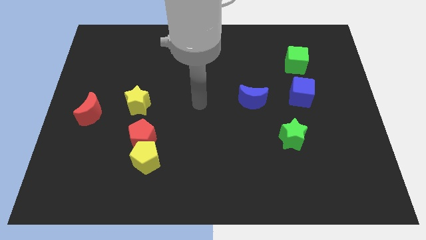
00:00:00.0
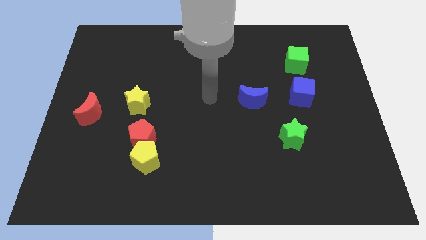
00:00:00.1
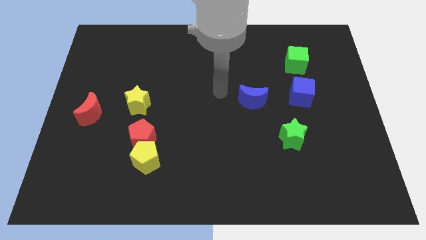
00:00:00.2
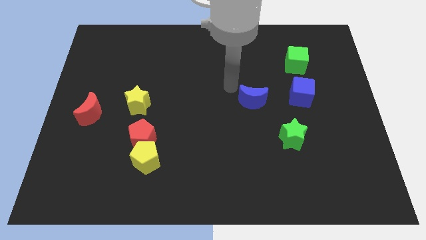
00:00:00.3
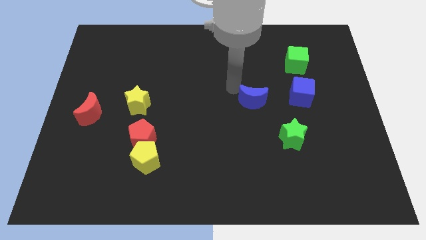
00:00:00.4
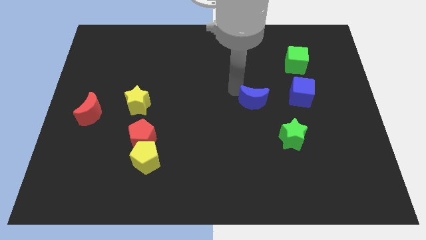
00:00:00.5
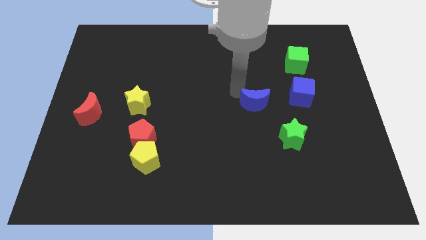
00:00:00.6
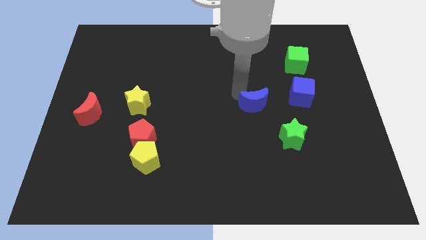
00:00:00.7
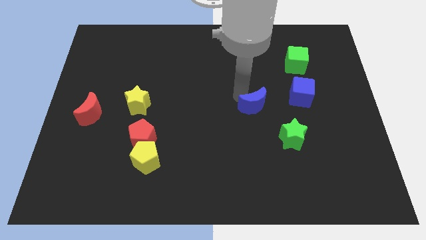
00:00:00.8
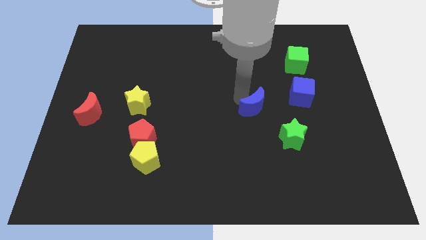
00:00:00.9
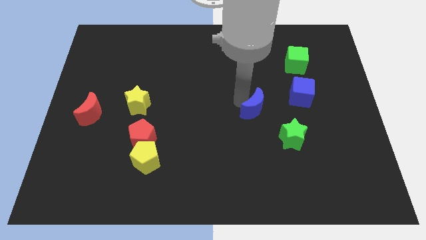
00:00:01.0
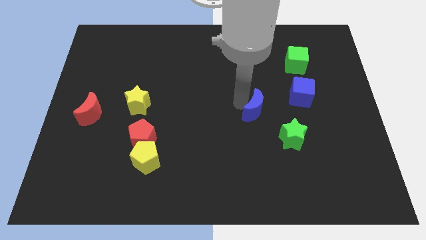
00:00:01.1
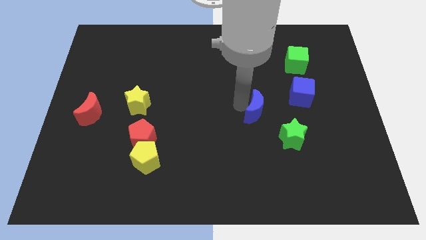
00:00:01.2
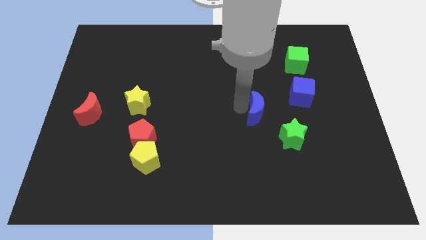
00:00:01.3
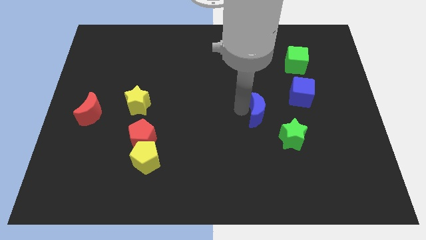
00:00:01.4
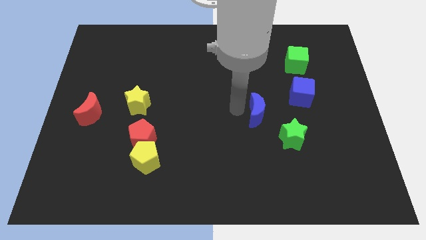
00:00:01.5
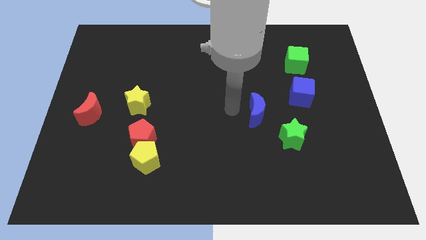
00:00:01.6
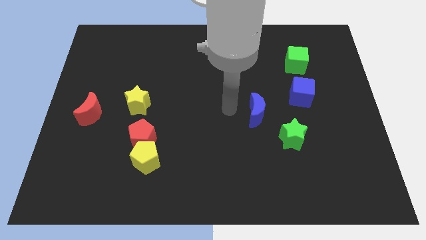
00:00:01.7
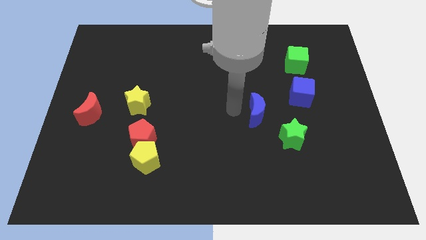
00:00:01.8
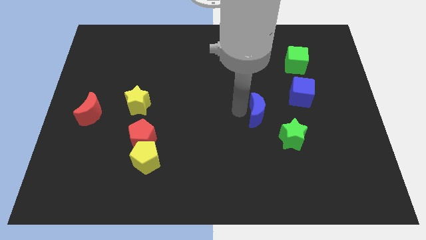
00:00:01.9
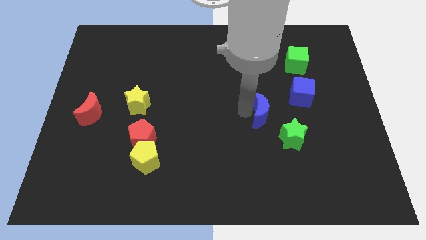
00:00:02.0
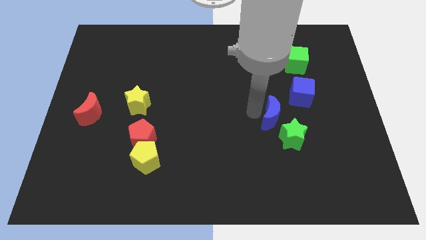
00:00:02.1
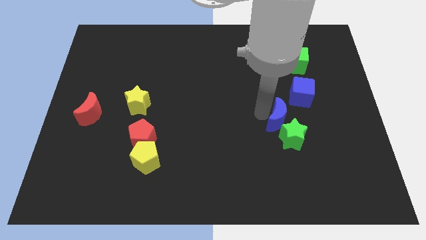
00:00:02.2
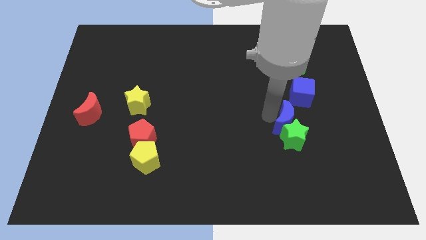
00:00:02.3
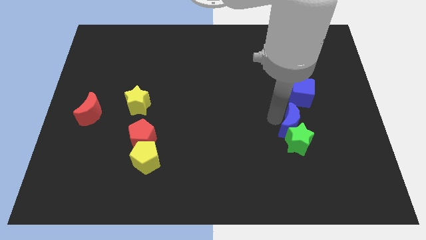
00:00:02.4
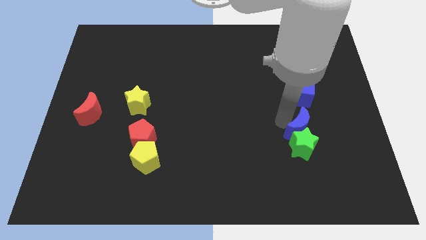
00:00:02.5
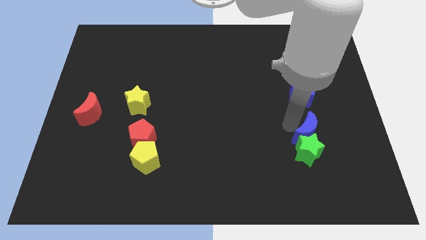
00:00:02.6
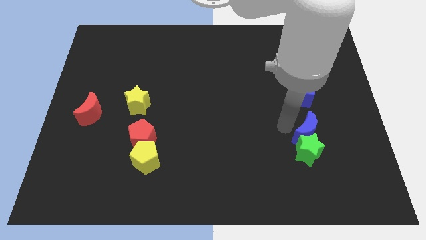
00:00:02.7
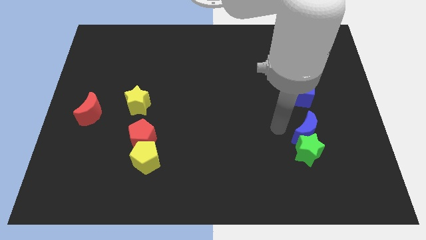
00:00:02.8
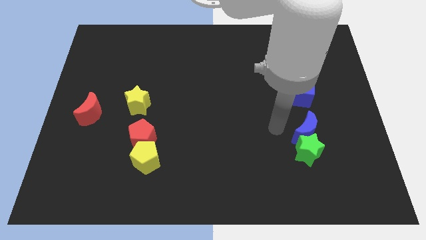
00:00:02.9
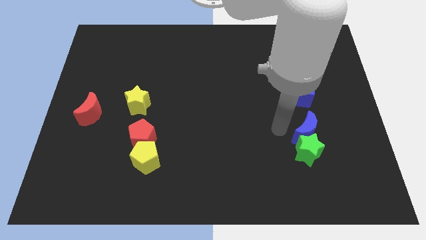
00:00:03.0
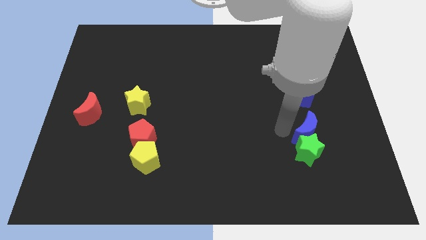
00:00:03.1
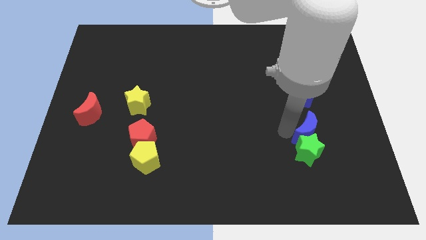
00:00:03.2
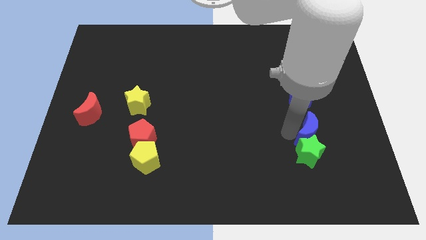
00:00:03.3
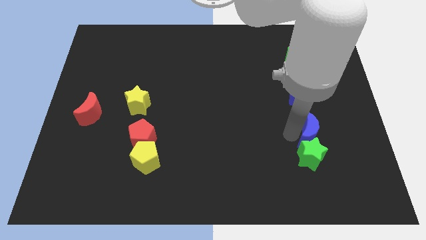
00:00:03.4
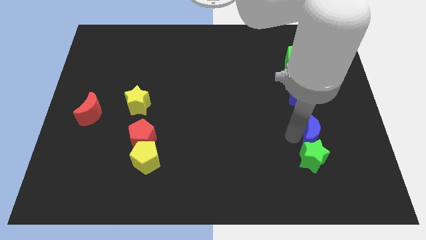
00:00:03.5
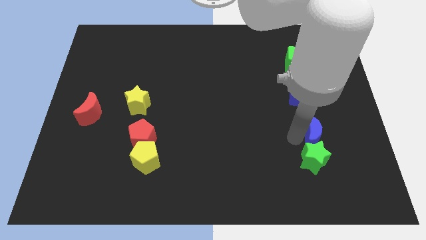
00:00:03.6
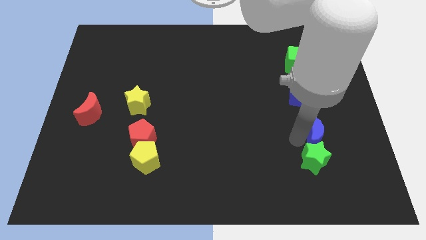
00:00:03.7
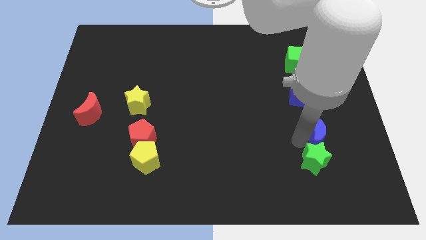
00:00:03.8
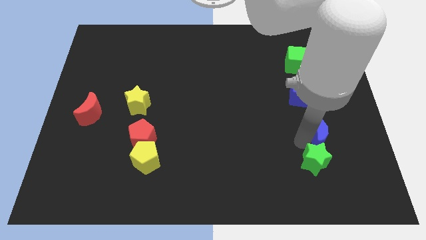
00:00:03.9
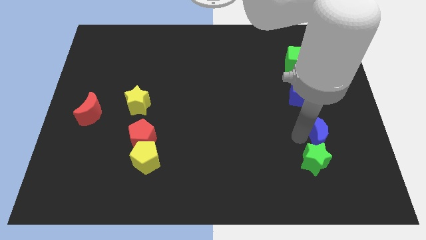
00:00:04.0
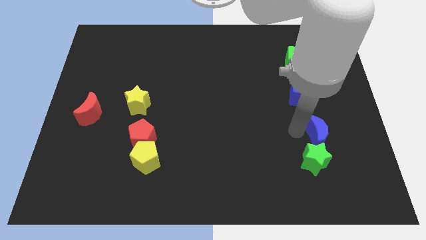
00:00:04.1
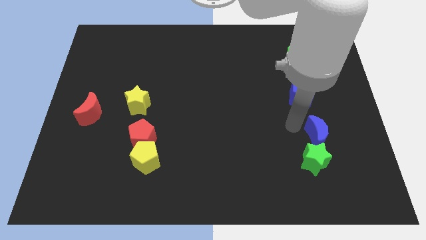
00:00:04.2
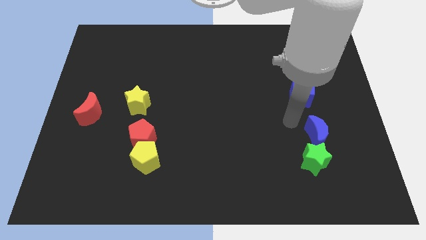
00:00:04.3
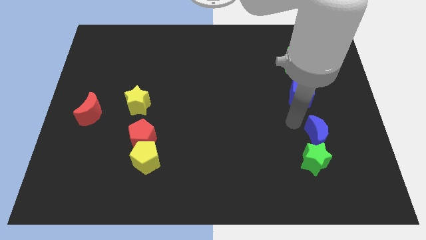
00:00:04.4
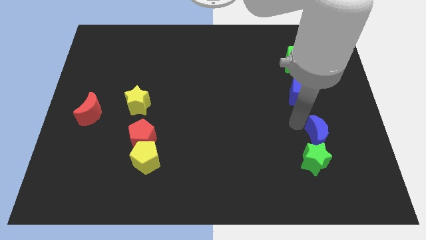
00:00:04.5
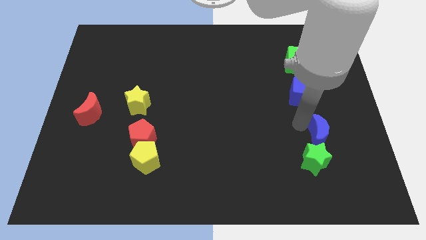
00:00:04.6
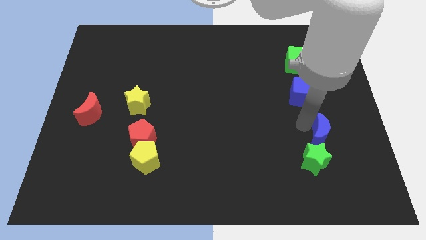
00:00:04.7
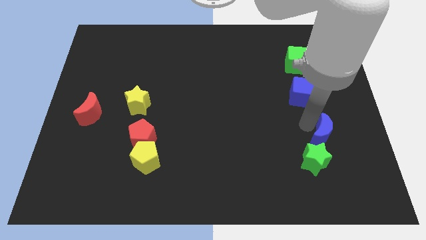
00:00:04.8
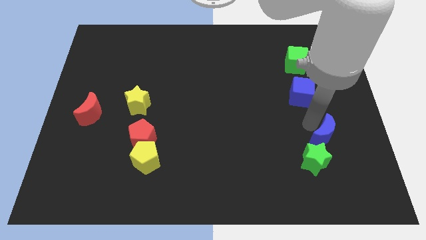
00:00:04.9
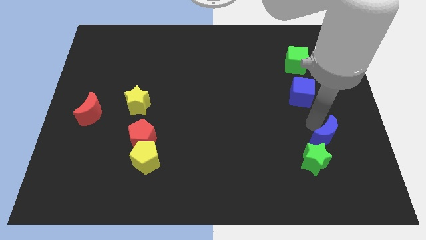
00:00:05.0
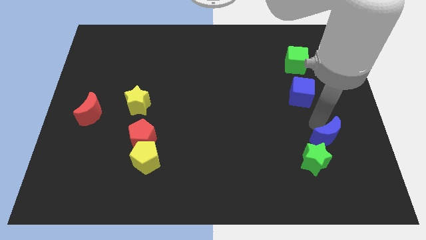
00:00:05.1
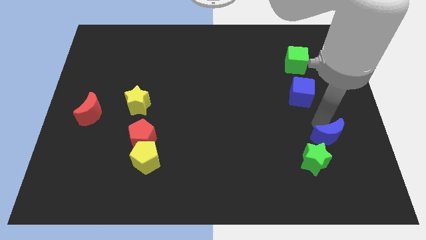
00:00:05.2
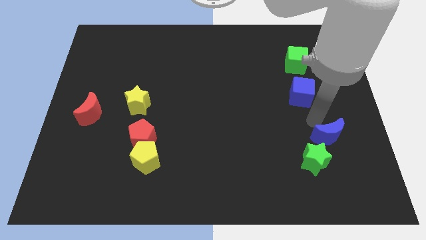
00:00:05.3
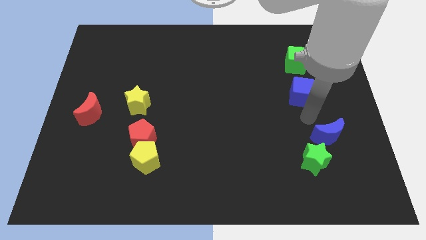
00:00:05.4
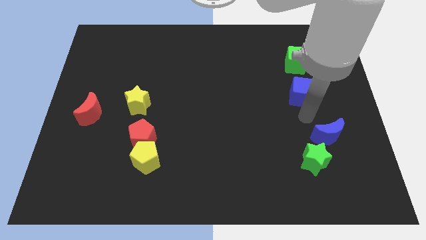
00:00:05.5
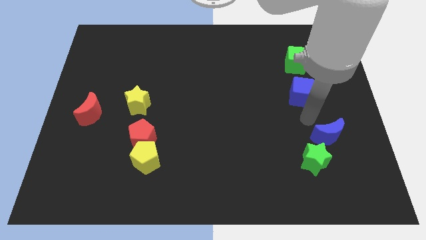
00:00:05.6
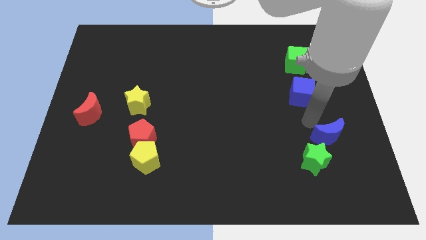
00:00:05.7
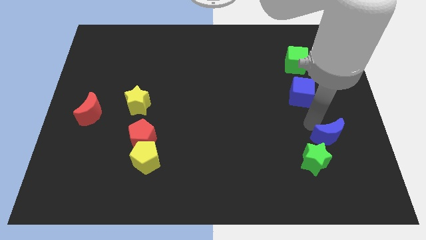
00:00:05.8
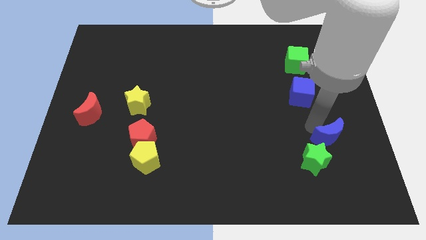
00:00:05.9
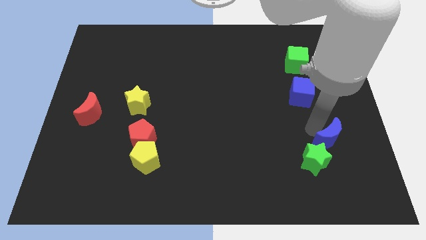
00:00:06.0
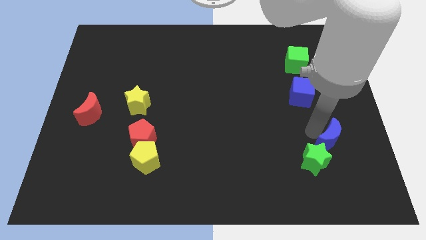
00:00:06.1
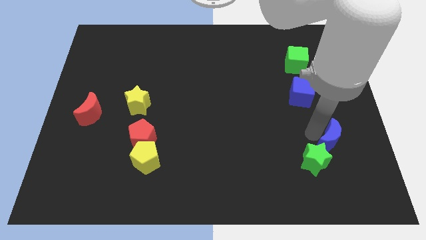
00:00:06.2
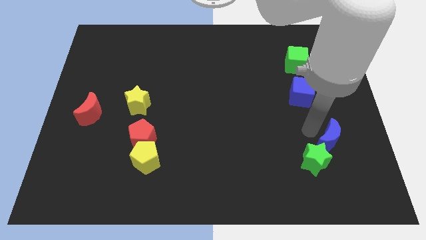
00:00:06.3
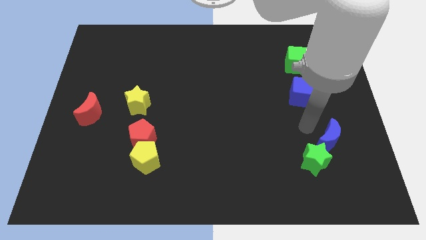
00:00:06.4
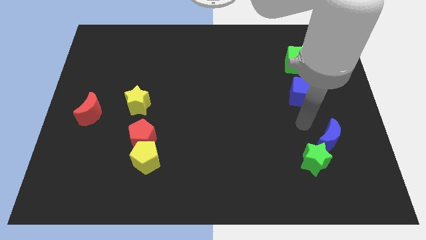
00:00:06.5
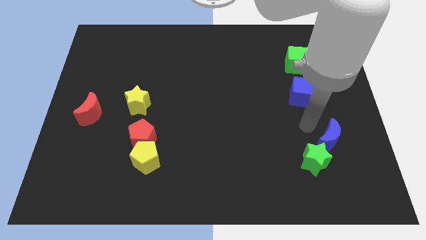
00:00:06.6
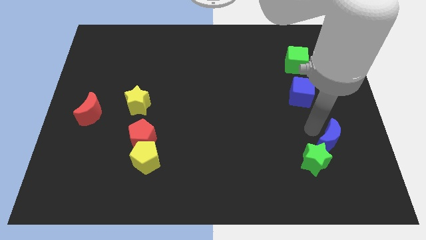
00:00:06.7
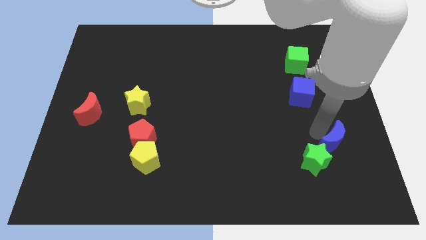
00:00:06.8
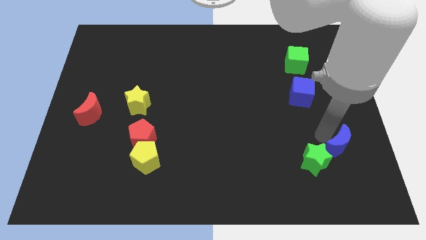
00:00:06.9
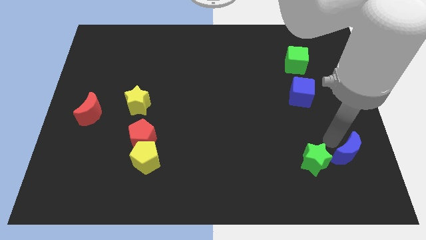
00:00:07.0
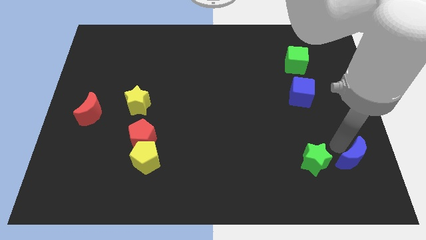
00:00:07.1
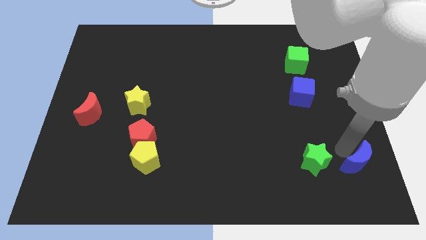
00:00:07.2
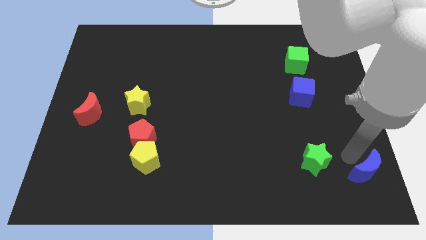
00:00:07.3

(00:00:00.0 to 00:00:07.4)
slide the blue moon to the bottom right

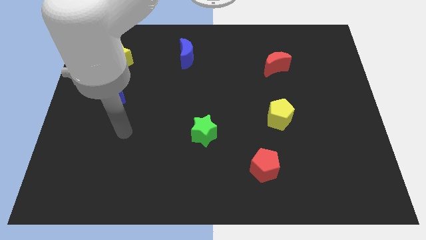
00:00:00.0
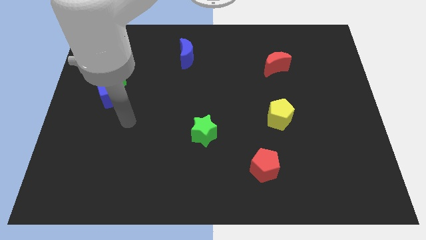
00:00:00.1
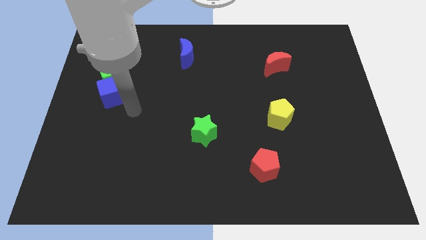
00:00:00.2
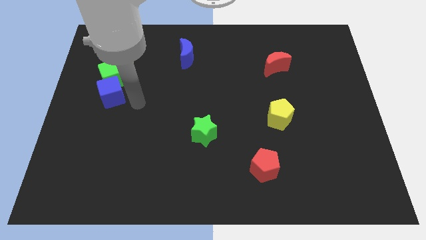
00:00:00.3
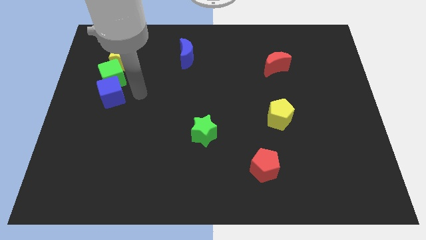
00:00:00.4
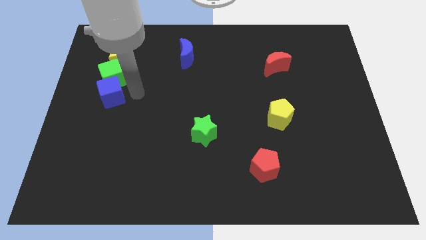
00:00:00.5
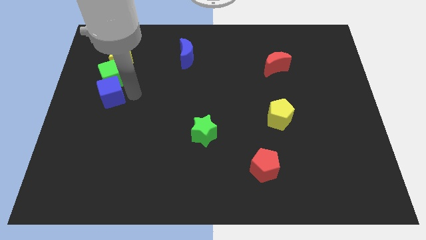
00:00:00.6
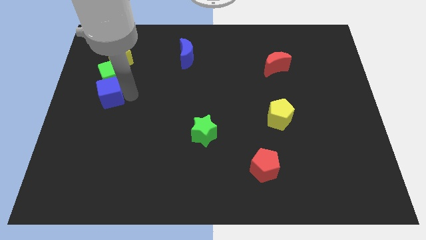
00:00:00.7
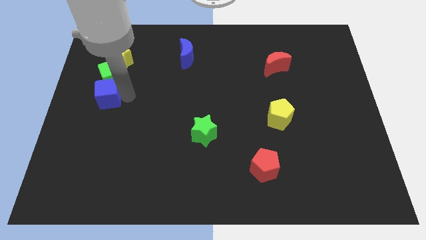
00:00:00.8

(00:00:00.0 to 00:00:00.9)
put the blue cube to the left side
